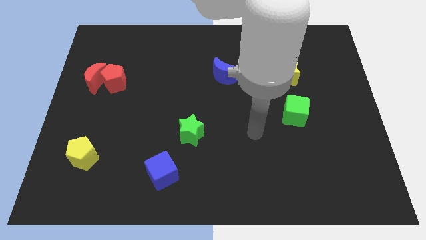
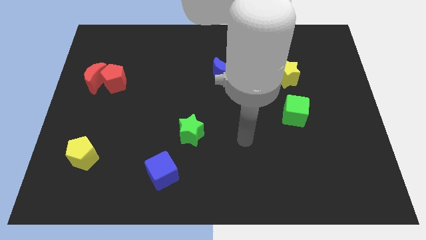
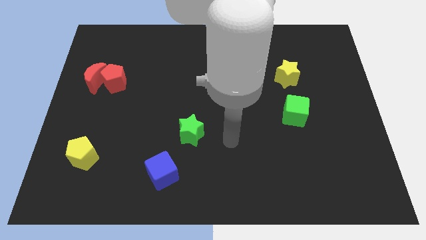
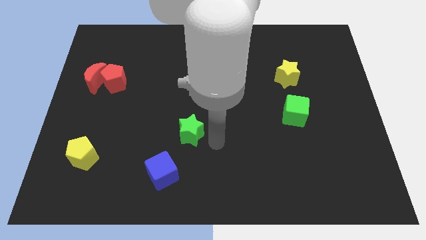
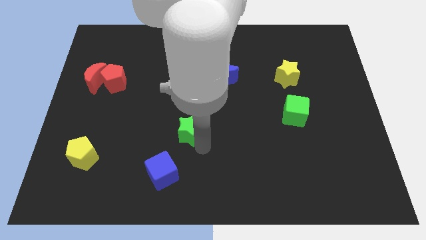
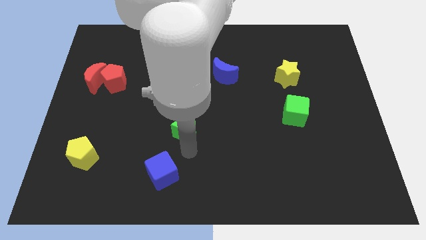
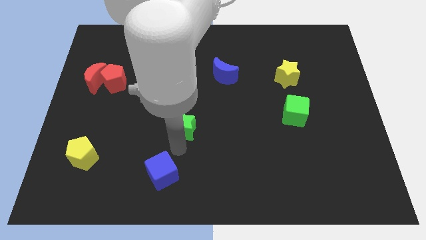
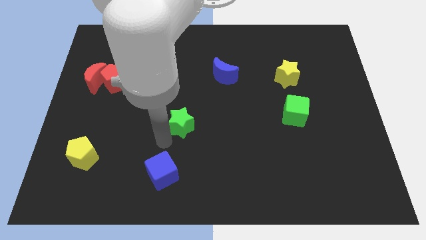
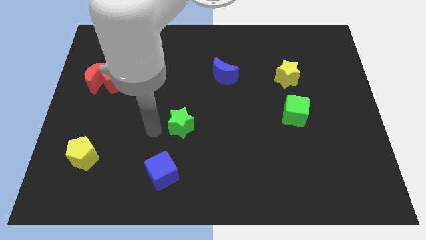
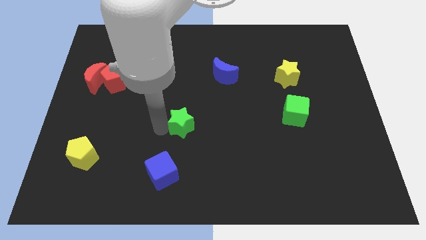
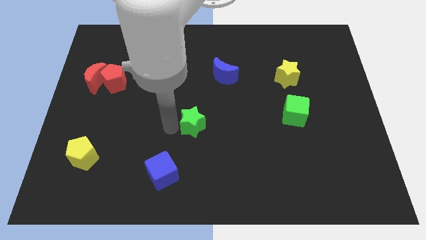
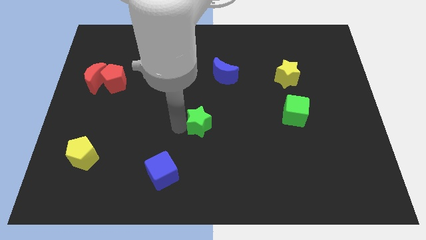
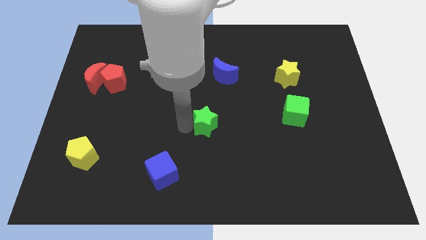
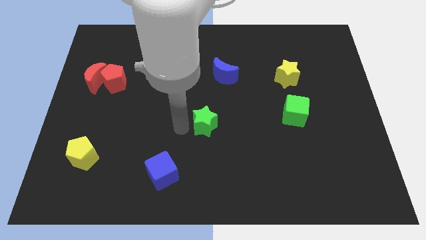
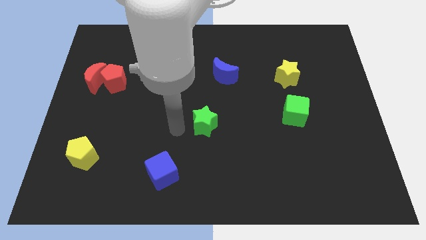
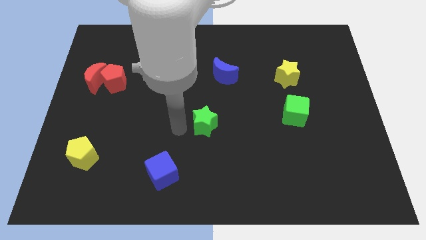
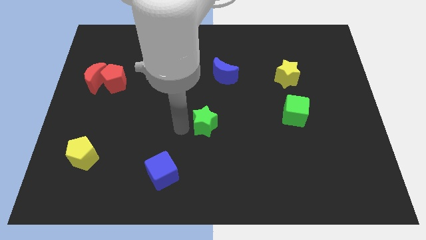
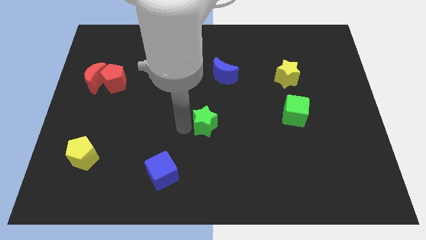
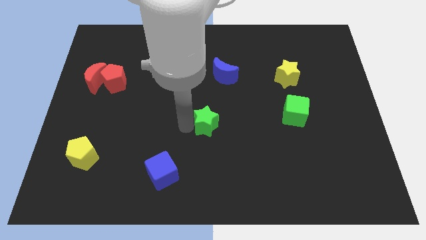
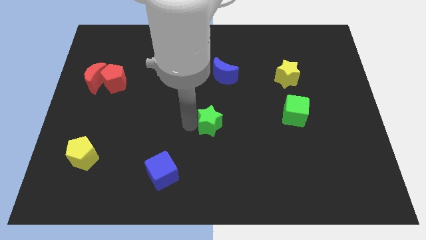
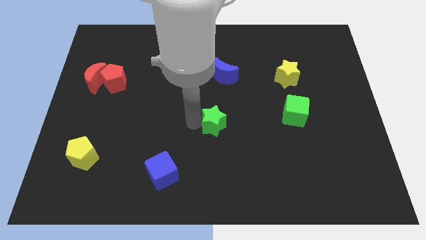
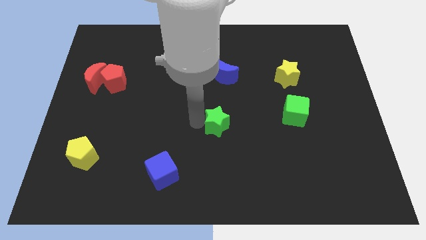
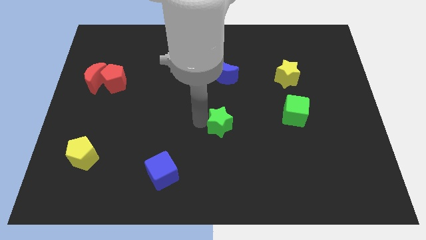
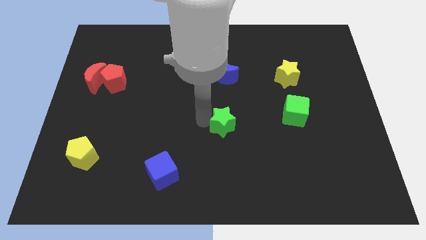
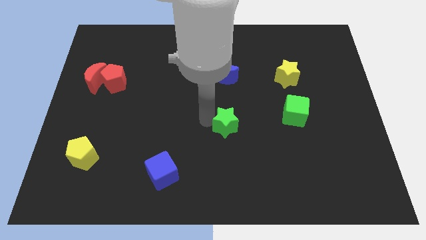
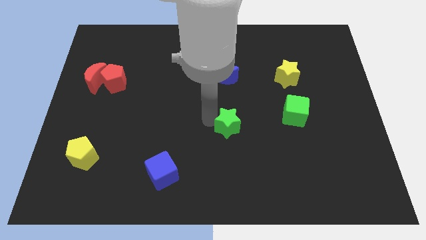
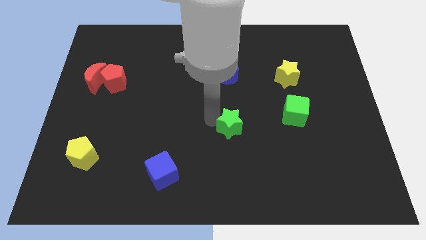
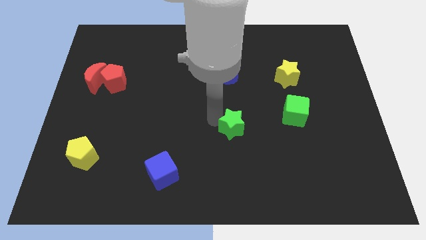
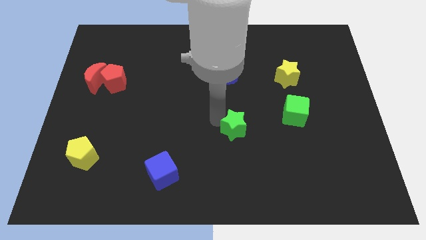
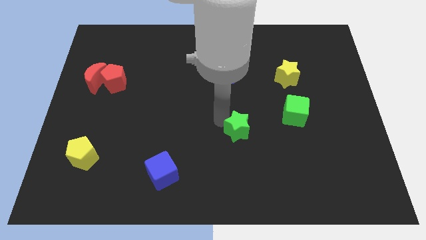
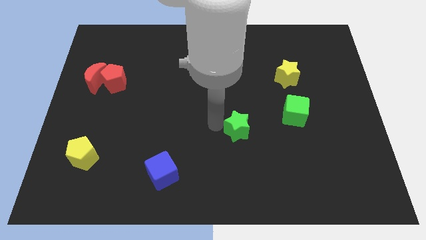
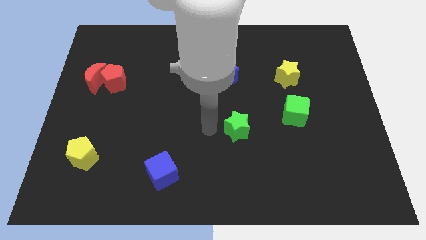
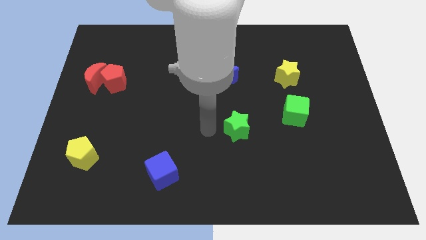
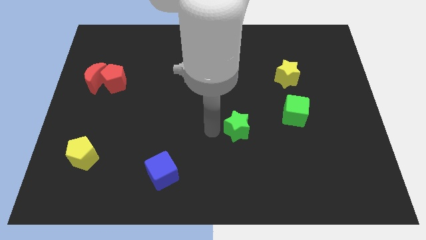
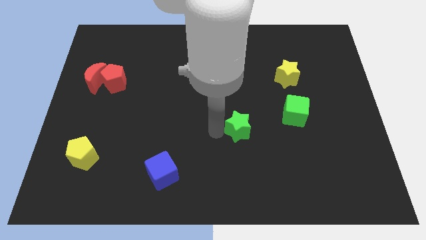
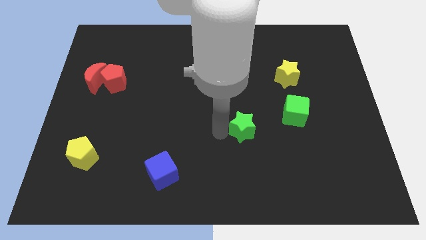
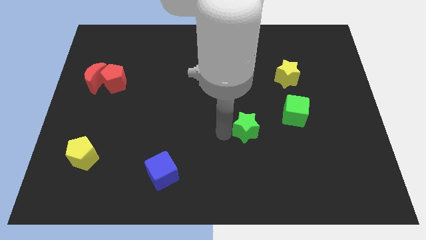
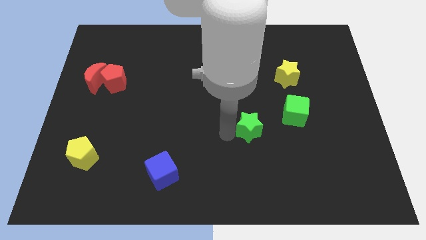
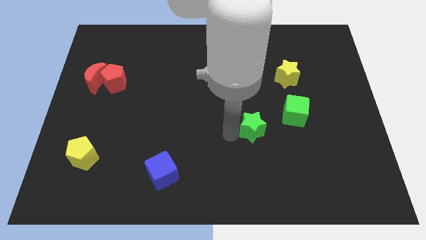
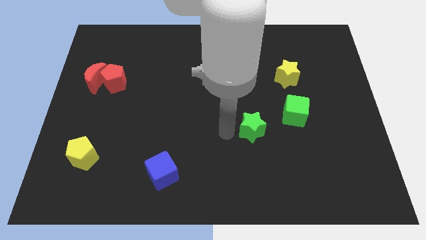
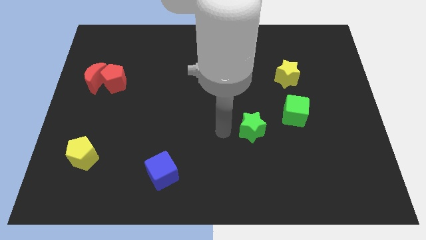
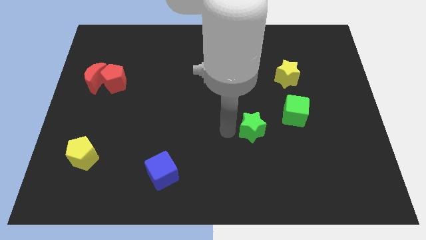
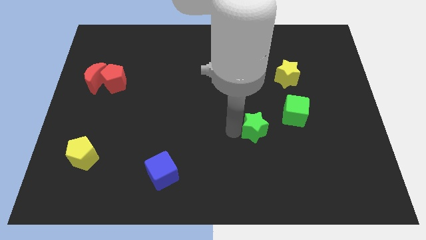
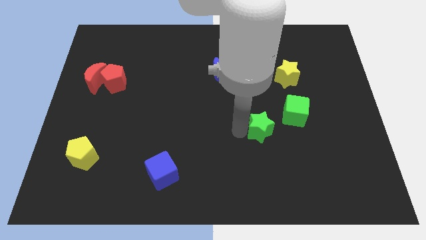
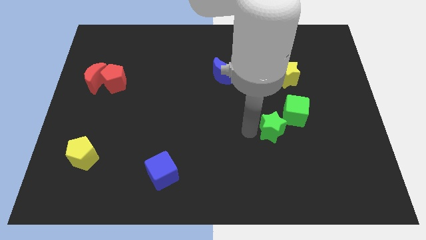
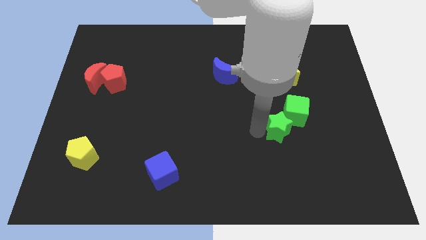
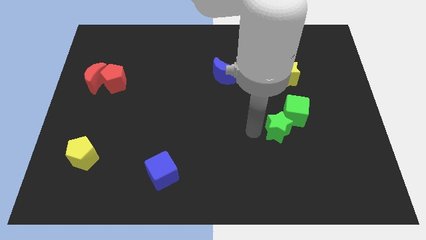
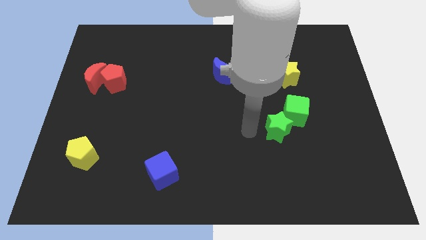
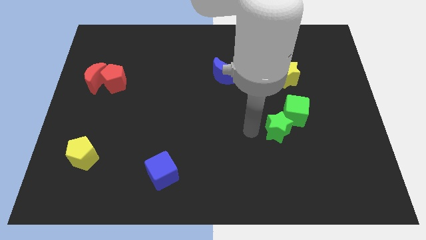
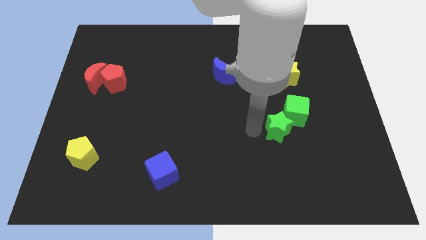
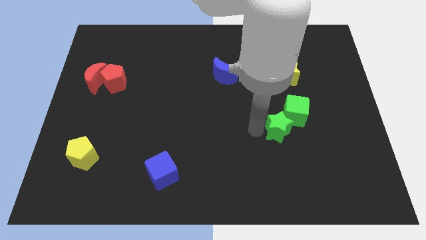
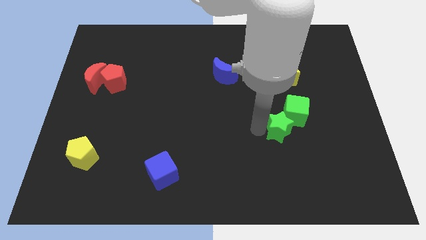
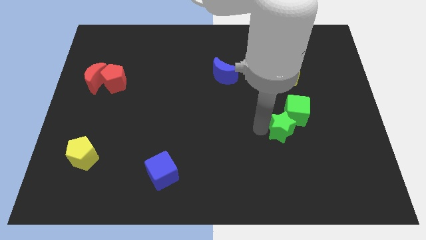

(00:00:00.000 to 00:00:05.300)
push the green star to the right

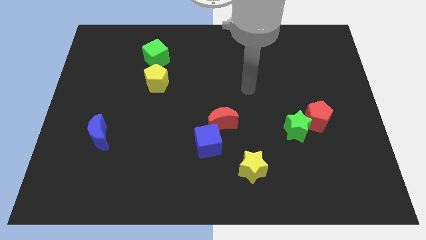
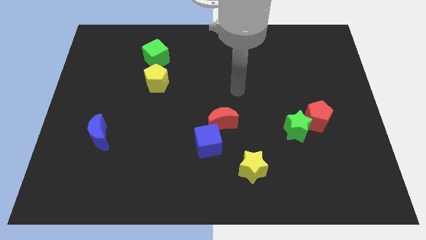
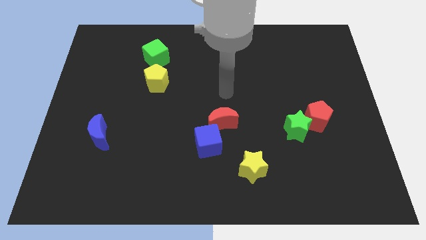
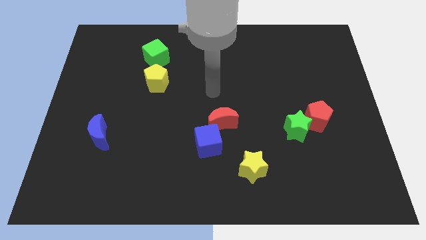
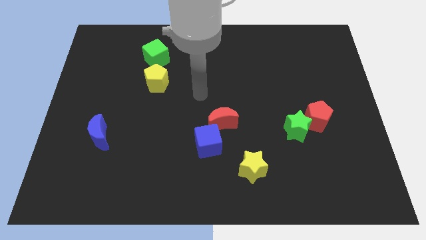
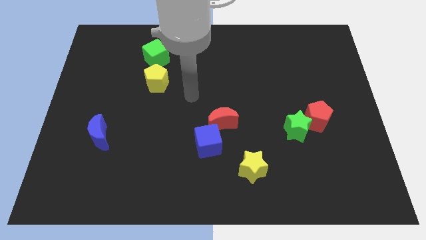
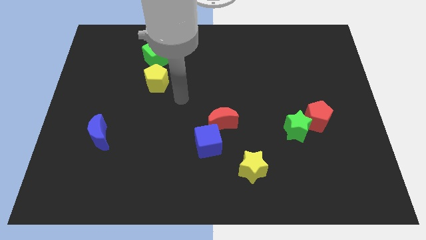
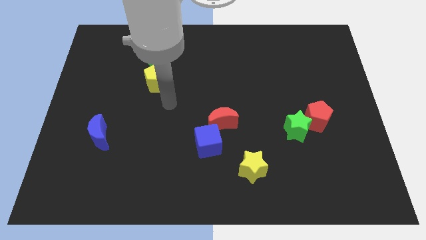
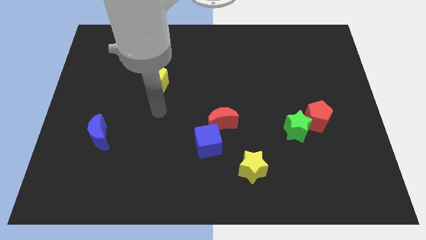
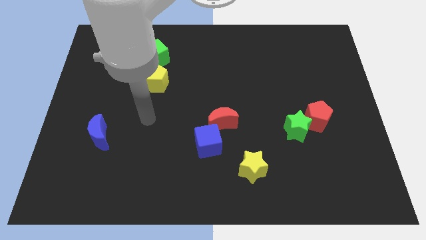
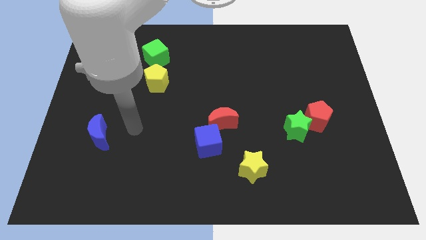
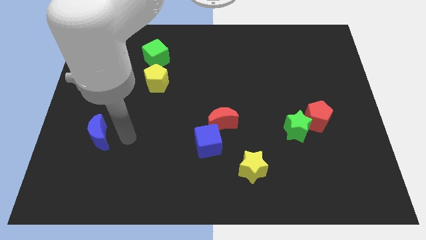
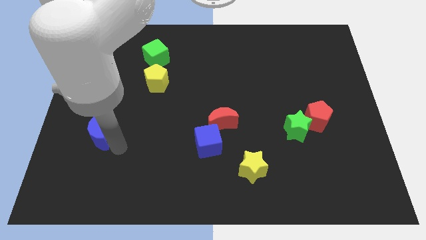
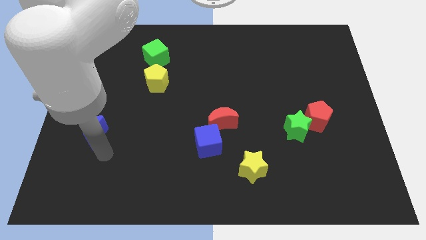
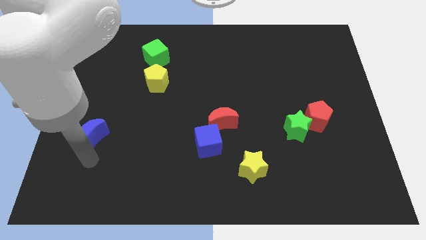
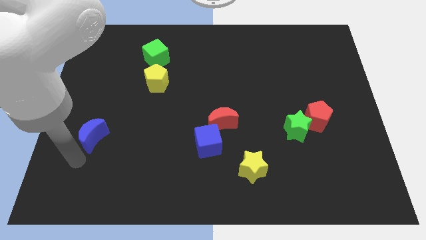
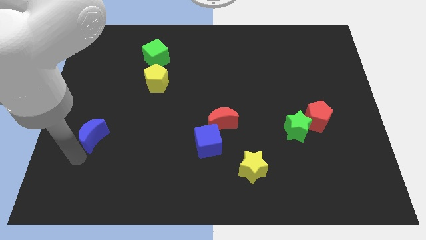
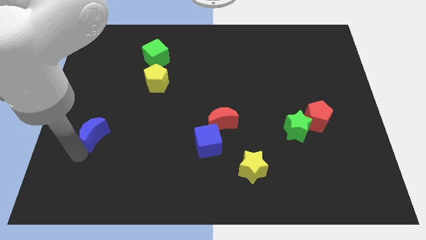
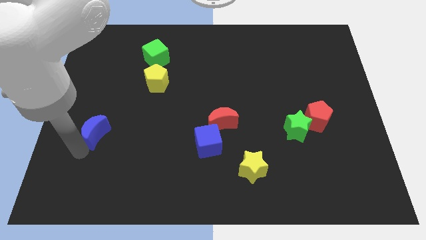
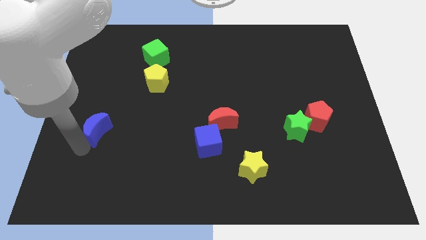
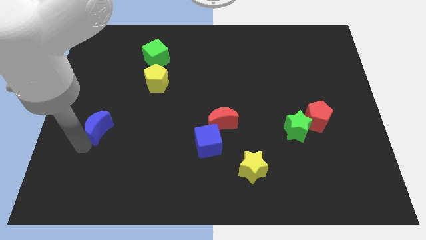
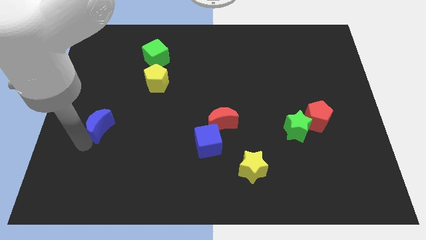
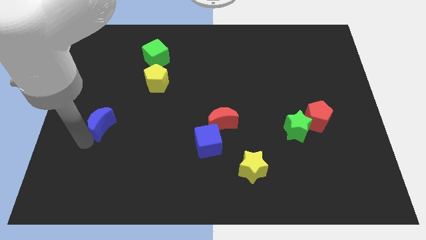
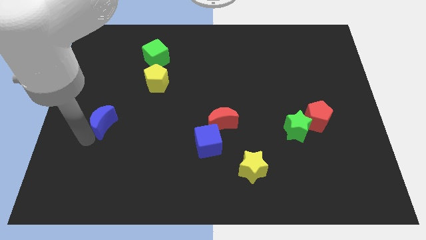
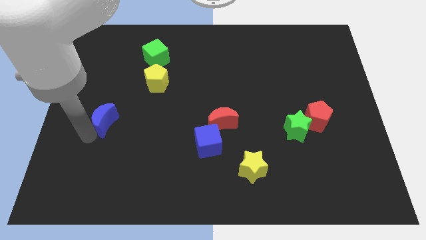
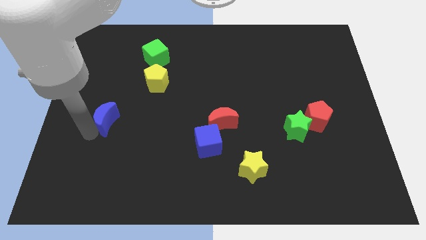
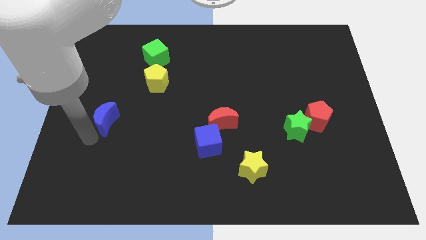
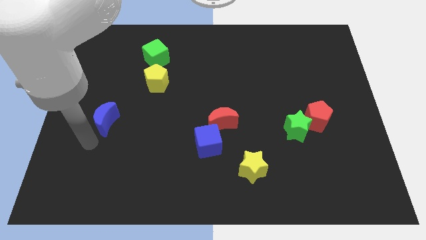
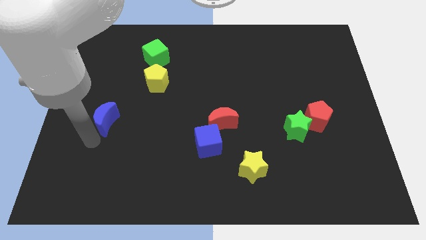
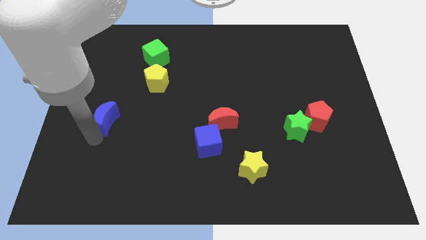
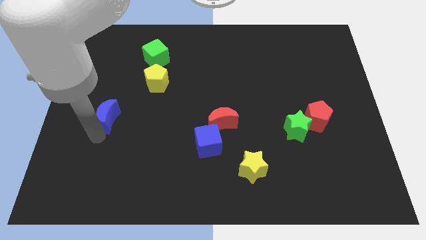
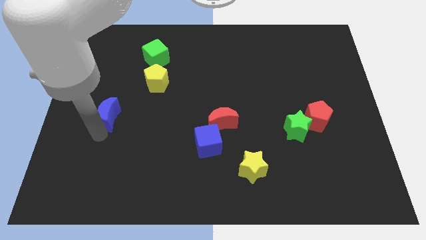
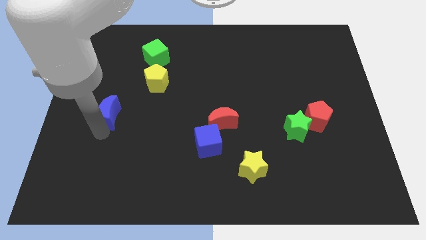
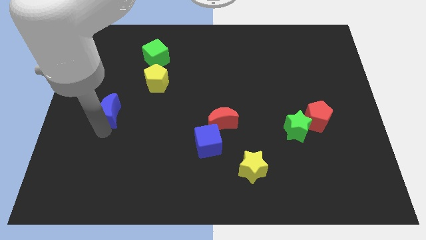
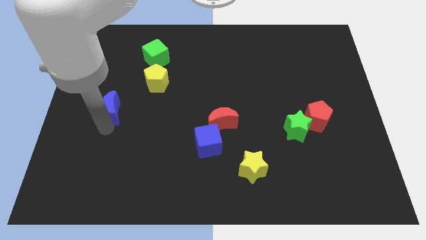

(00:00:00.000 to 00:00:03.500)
slightly move the blue moon upwards
